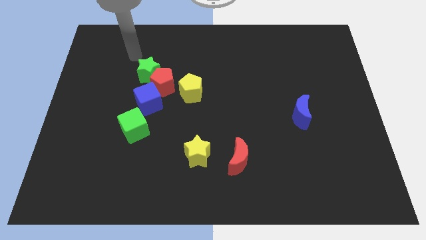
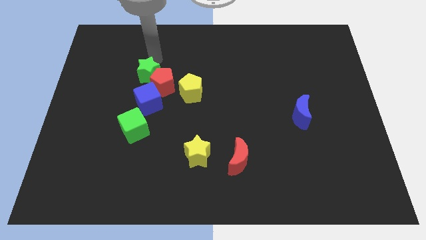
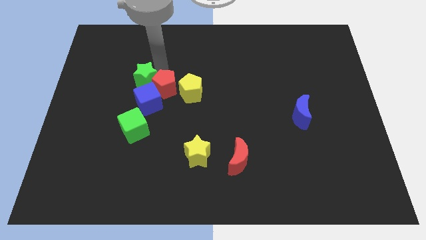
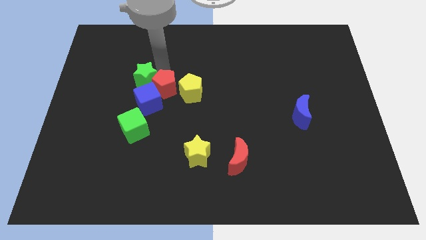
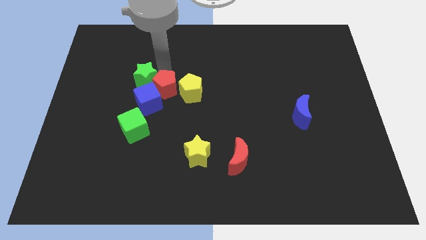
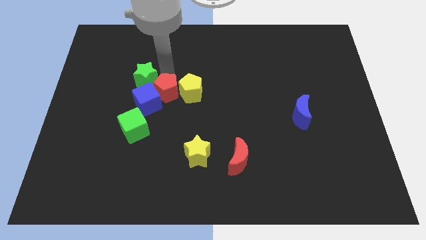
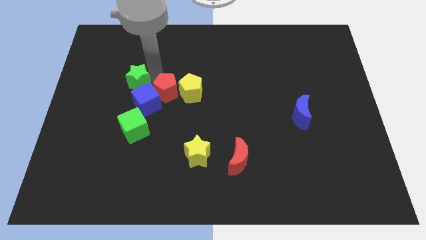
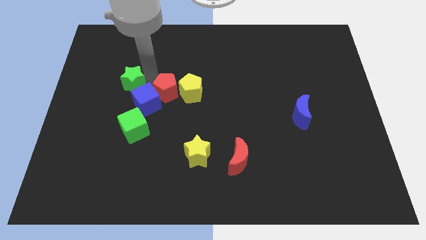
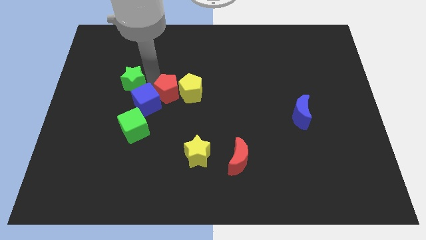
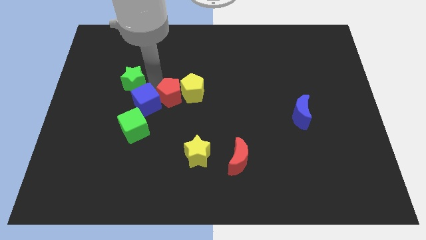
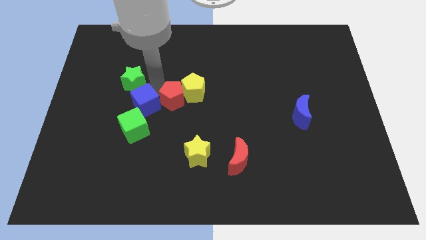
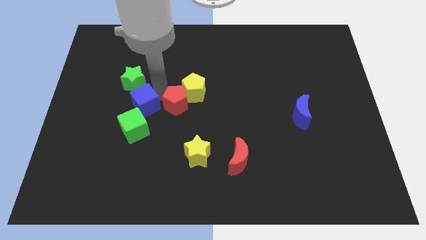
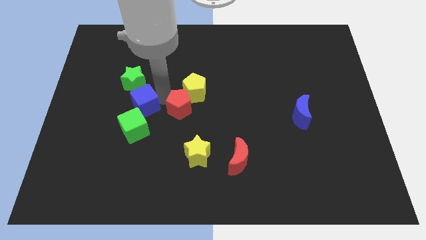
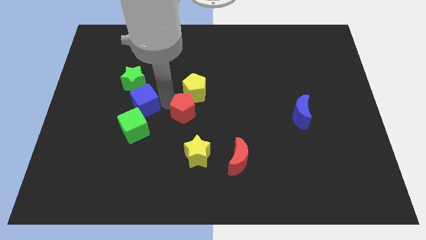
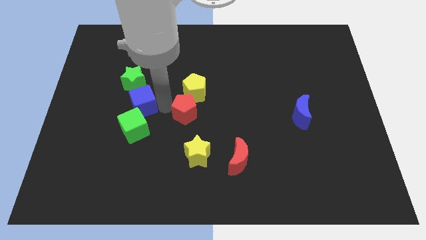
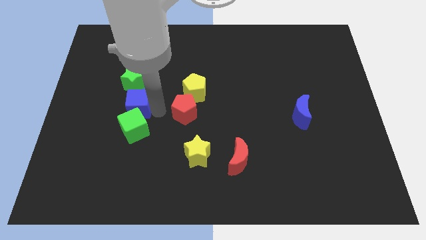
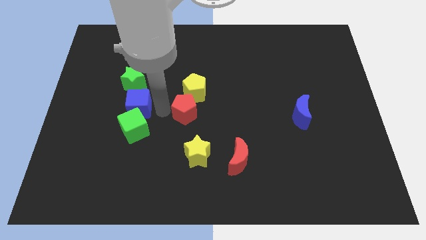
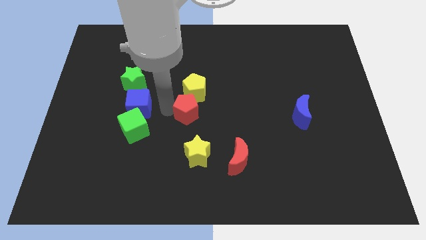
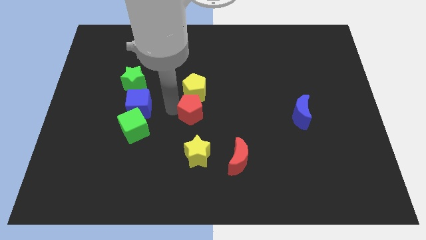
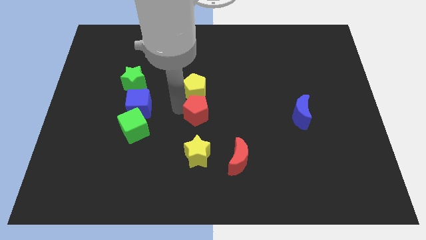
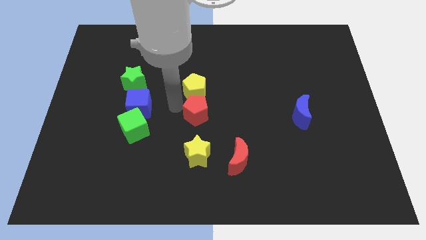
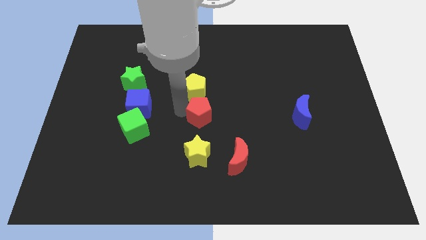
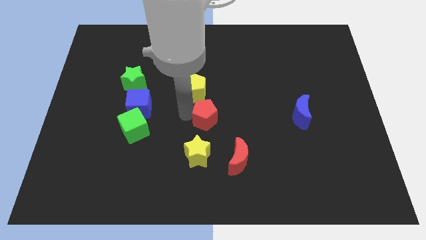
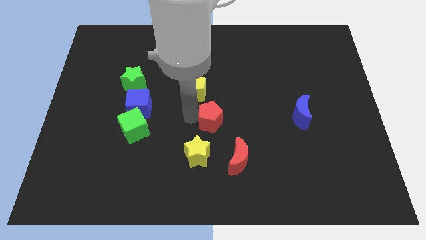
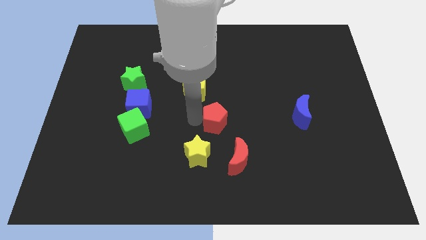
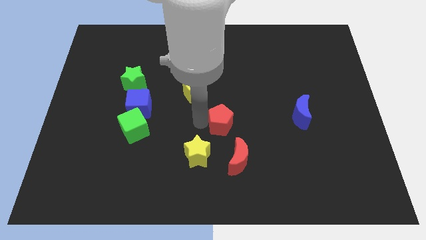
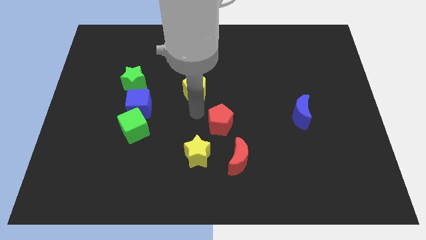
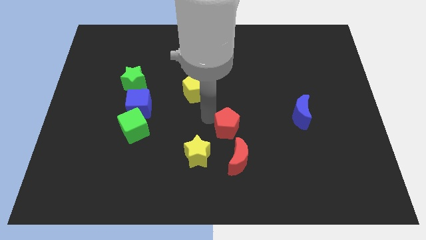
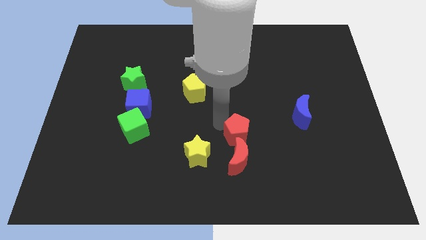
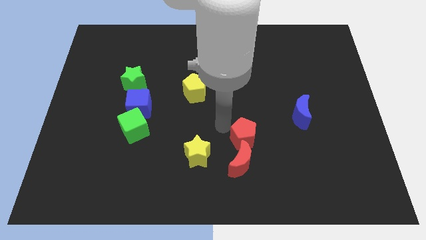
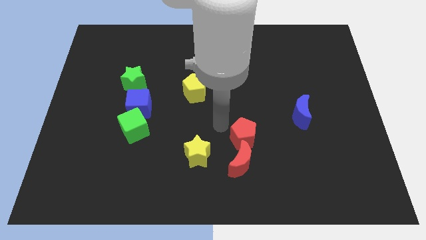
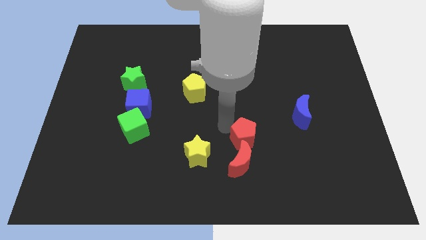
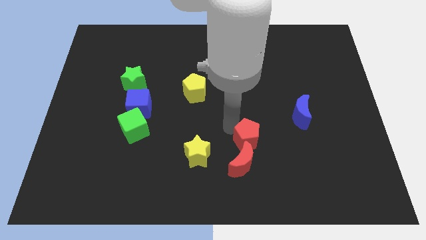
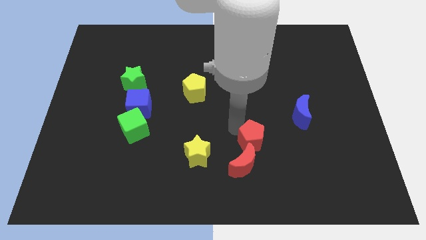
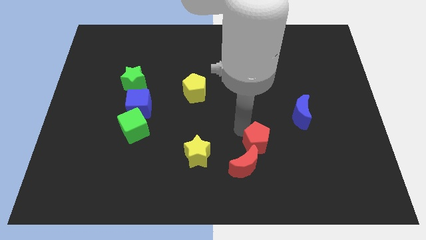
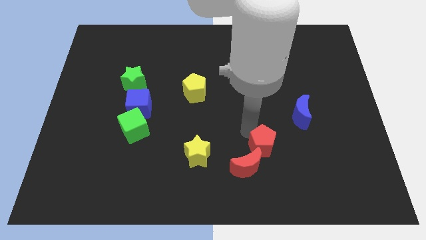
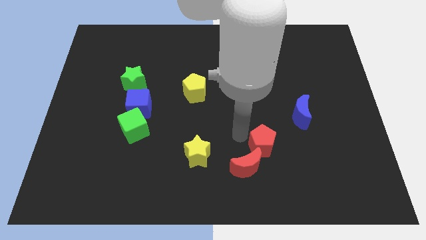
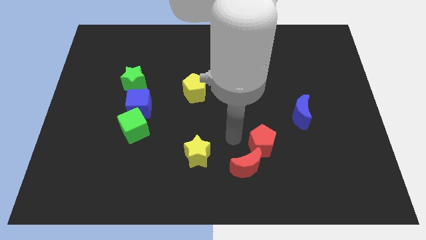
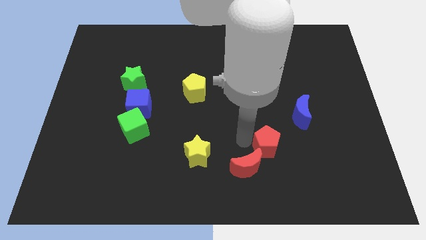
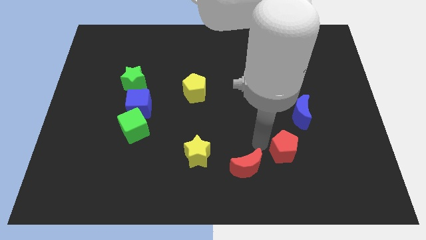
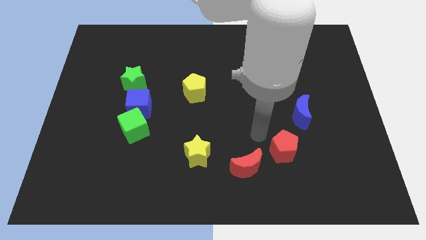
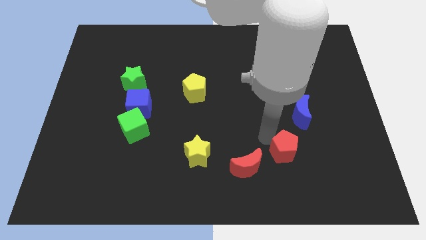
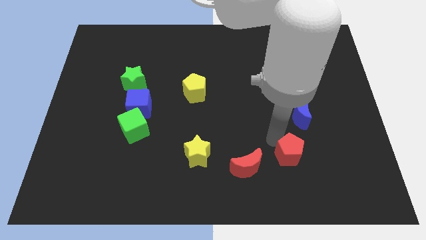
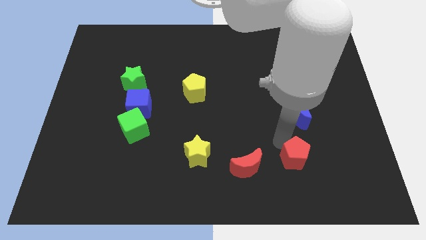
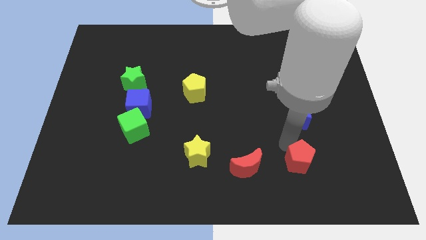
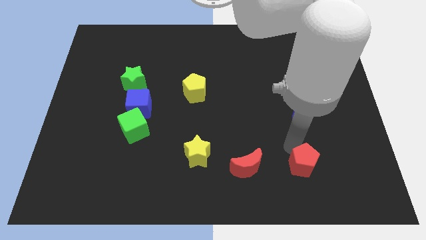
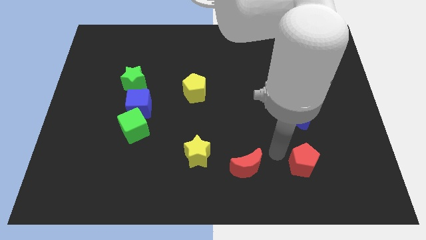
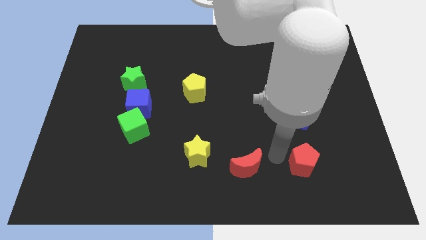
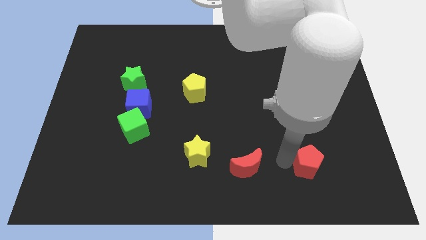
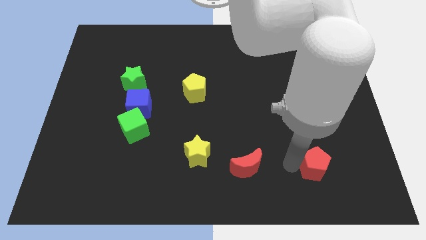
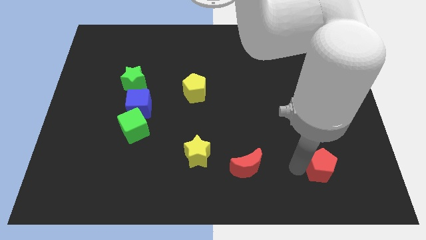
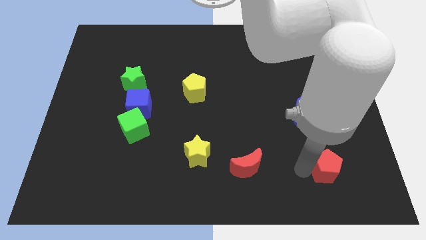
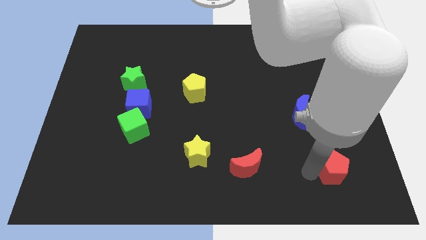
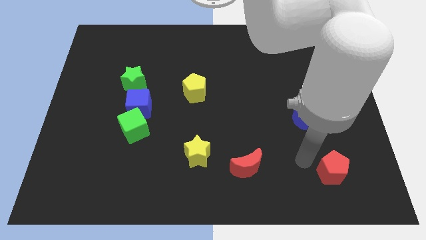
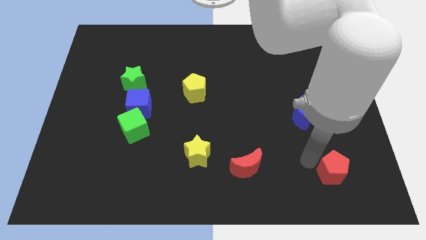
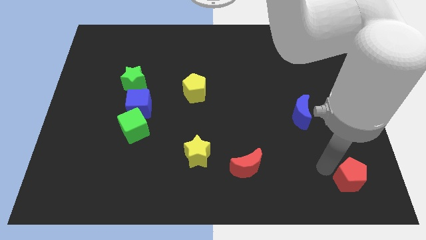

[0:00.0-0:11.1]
put the red pentagon to the bottom right corner

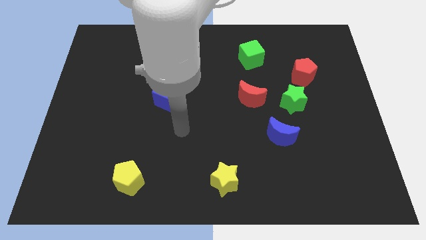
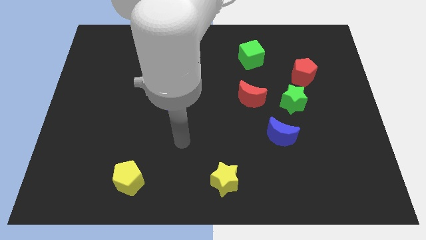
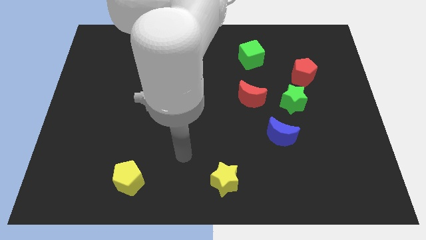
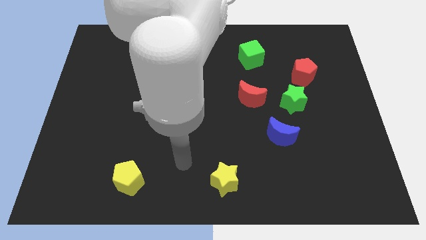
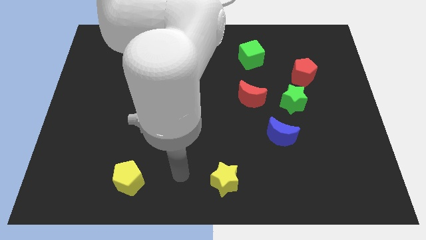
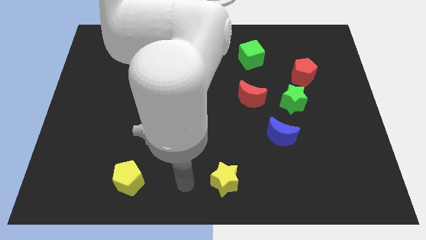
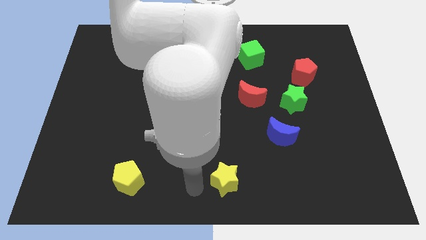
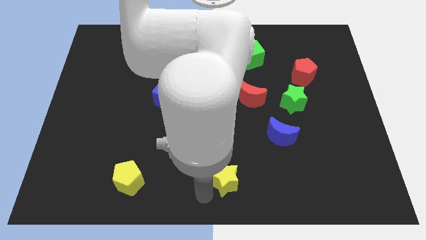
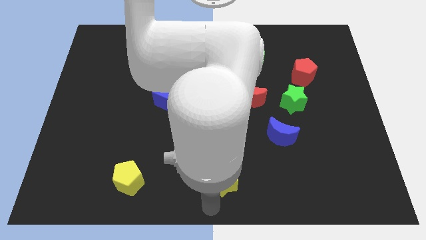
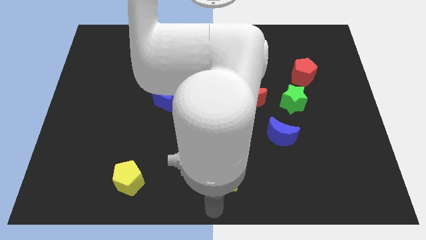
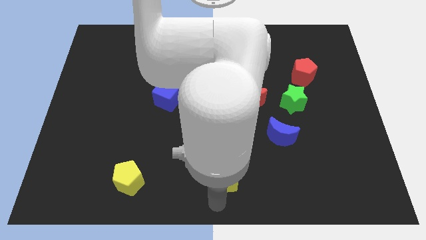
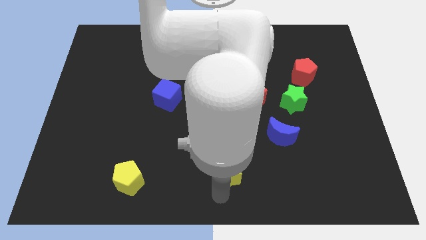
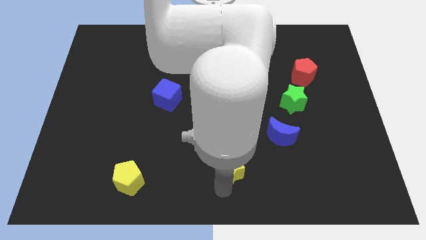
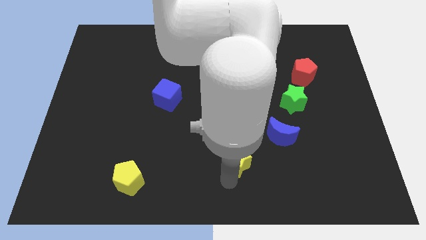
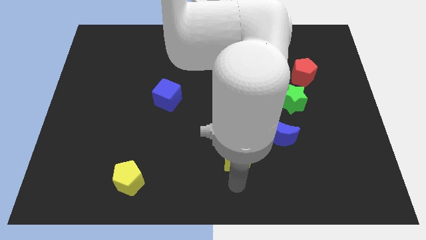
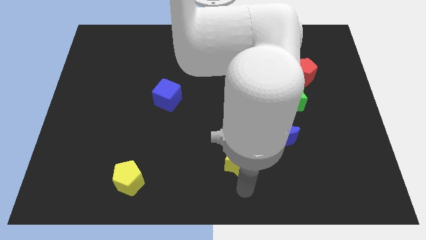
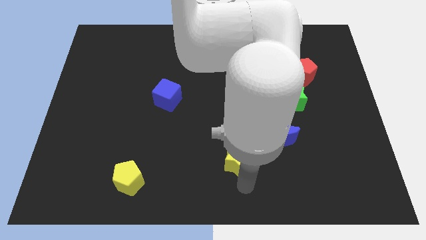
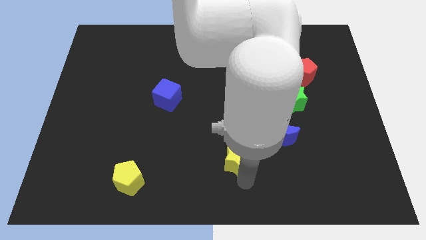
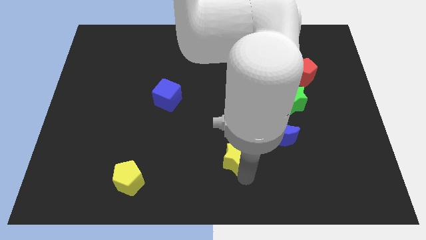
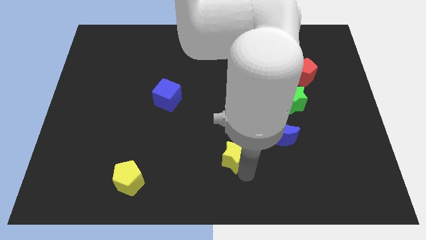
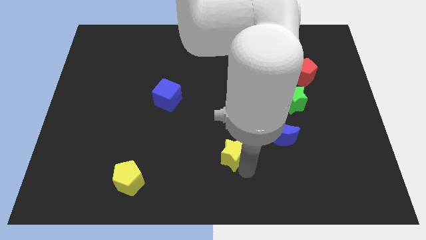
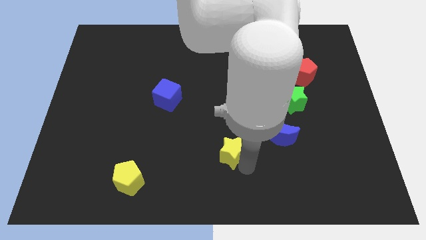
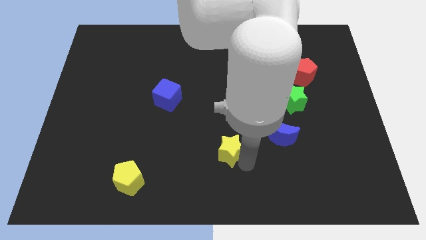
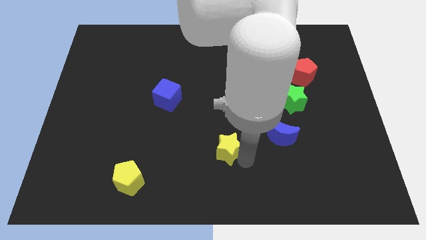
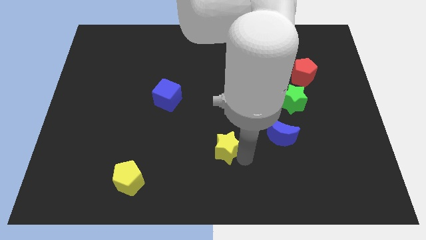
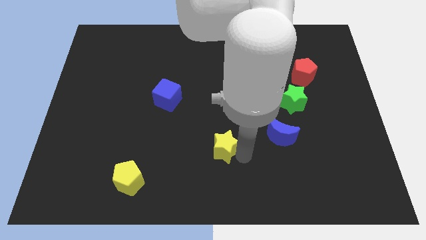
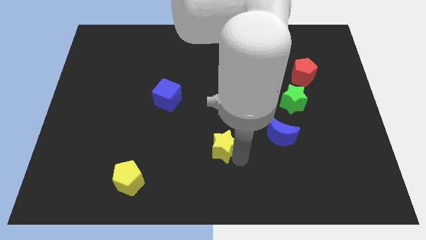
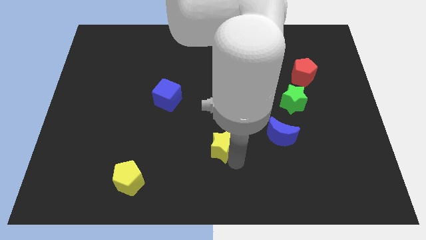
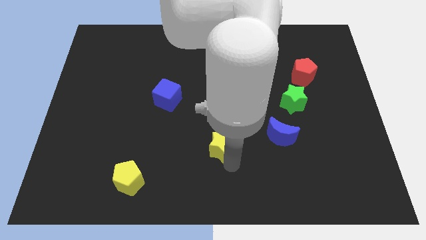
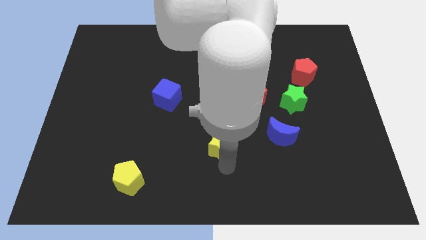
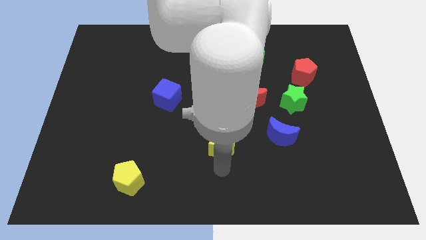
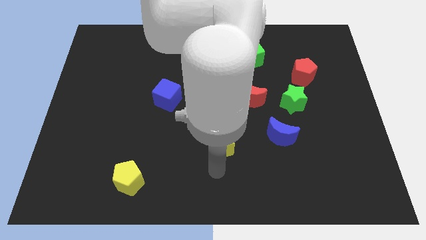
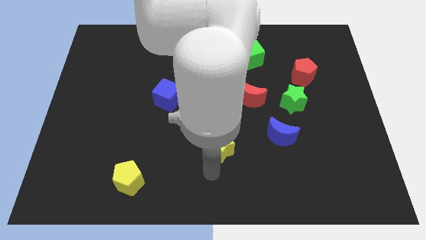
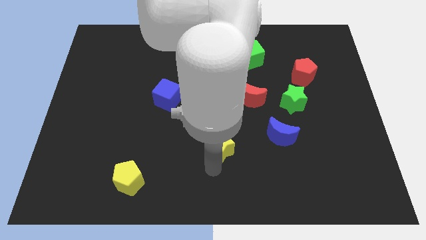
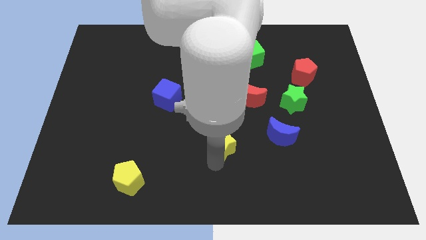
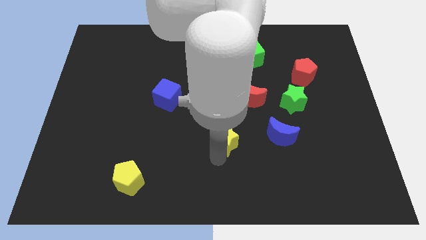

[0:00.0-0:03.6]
put the yellow star to the middle of the board
